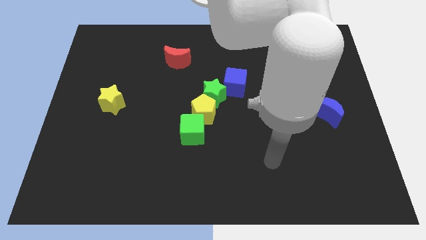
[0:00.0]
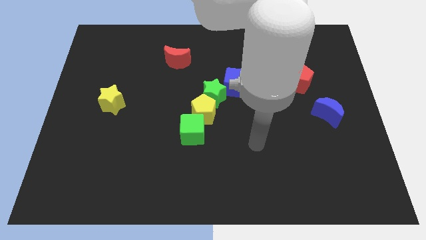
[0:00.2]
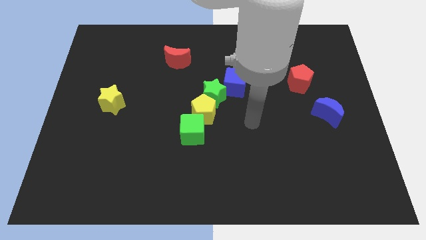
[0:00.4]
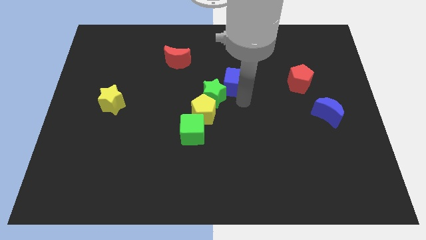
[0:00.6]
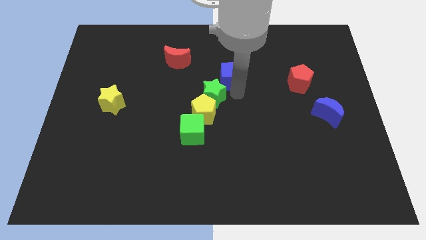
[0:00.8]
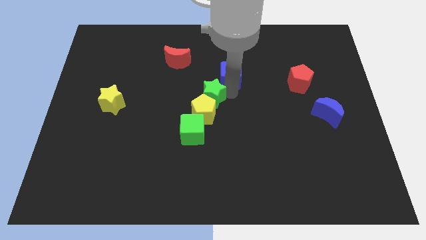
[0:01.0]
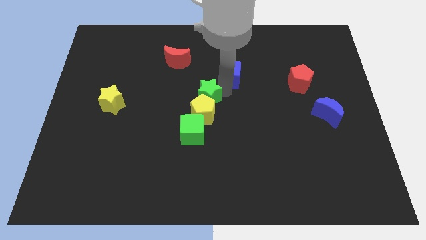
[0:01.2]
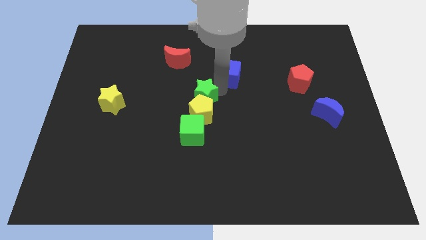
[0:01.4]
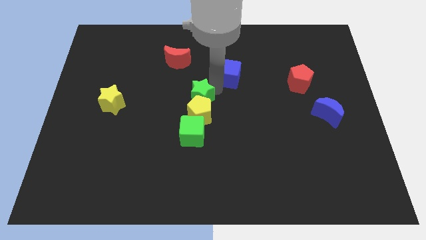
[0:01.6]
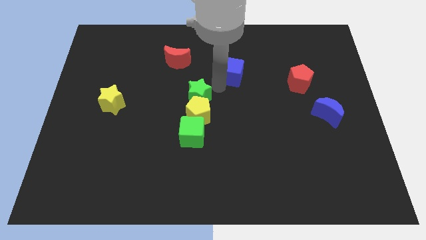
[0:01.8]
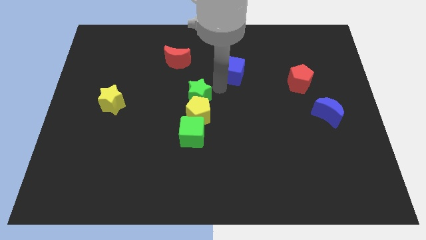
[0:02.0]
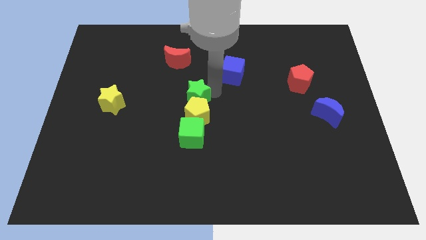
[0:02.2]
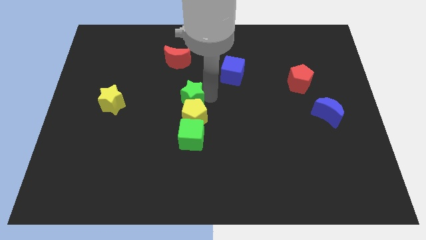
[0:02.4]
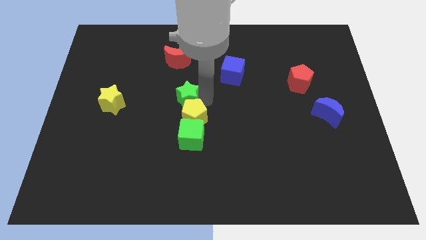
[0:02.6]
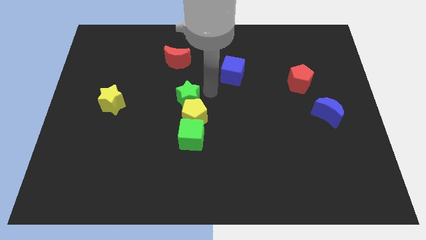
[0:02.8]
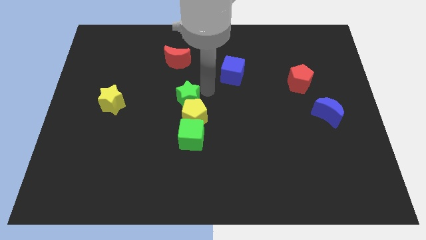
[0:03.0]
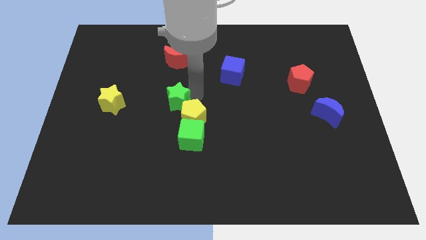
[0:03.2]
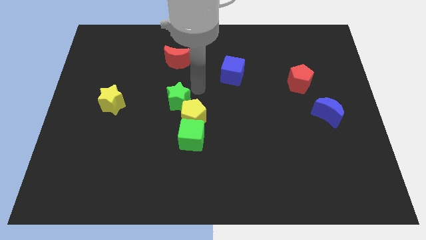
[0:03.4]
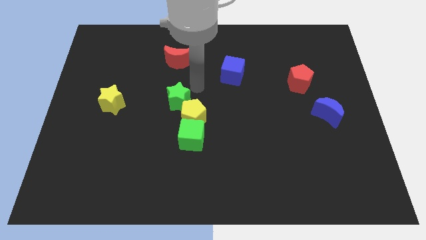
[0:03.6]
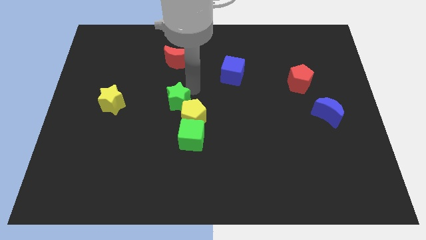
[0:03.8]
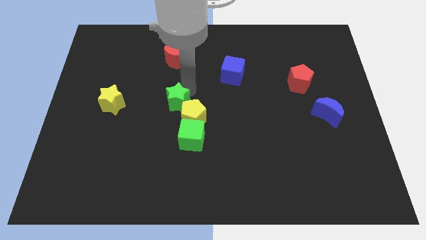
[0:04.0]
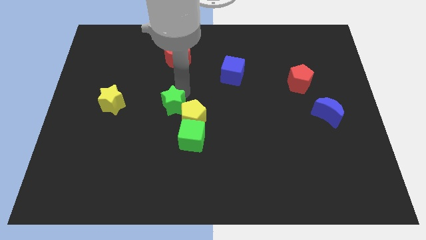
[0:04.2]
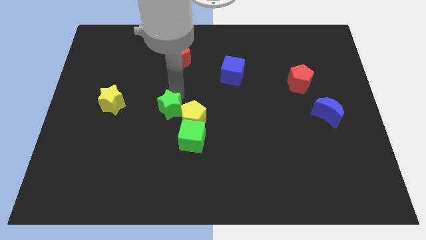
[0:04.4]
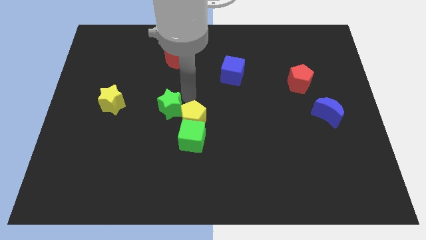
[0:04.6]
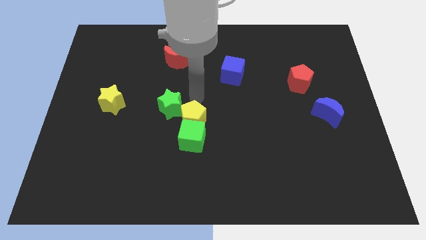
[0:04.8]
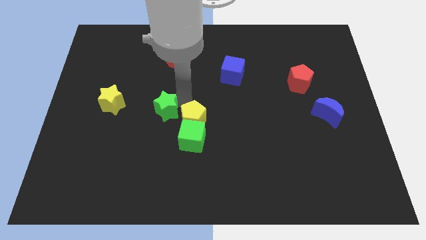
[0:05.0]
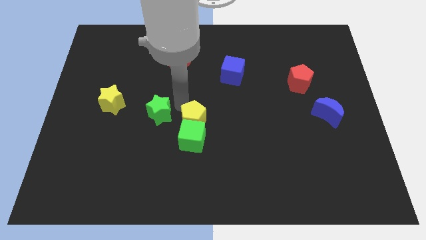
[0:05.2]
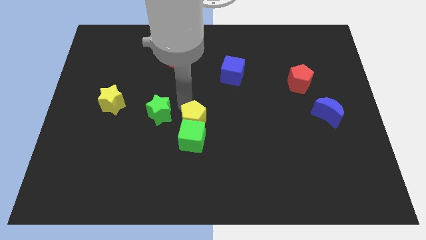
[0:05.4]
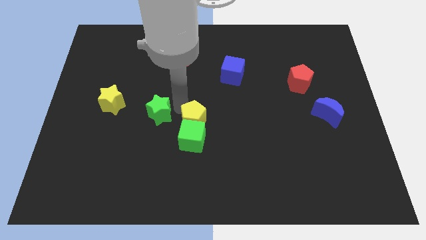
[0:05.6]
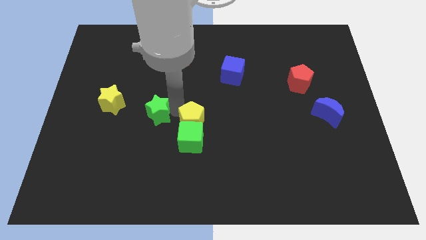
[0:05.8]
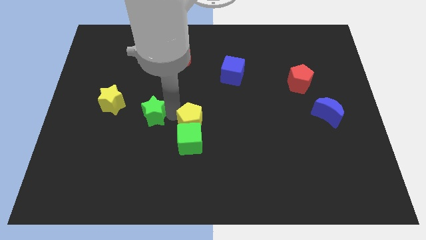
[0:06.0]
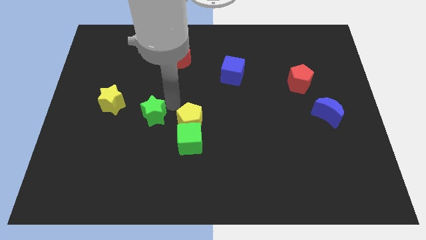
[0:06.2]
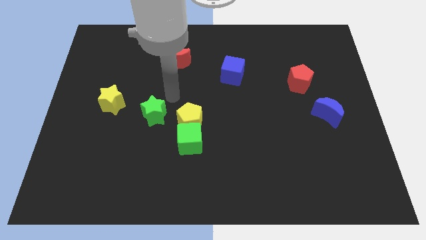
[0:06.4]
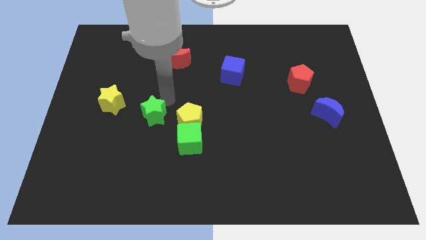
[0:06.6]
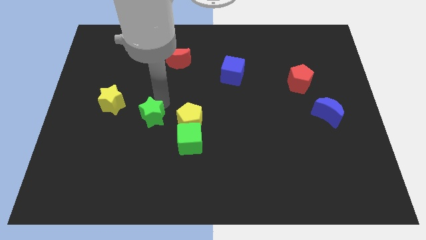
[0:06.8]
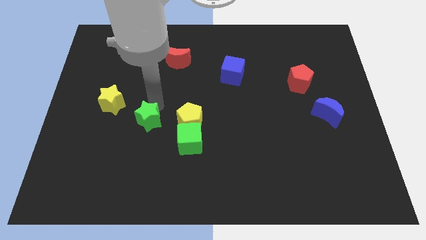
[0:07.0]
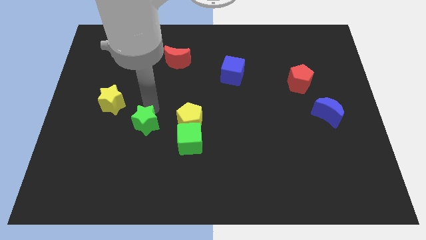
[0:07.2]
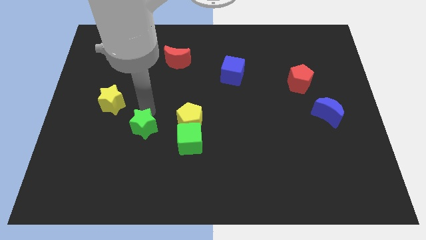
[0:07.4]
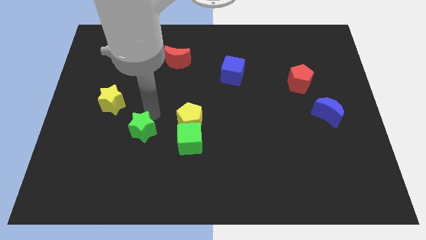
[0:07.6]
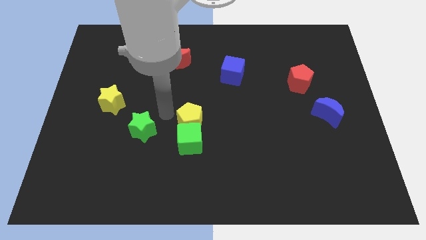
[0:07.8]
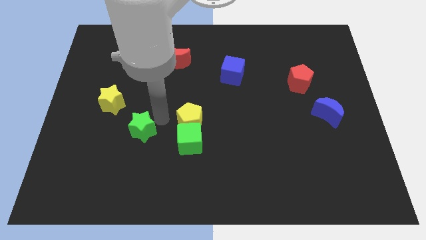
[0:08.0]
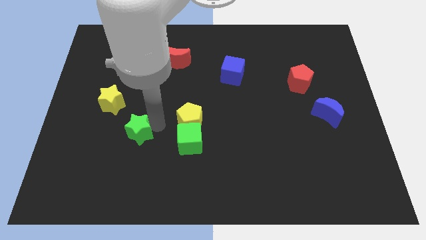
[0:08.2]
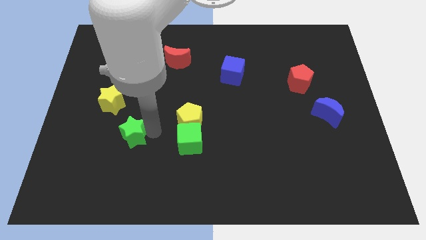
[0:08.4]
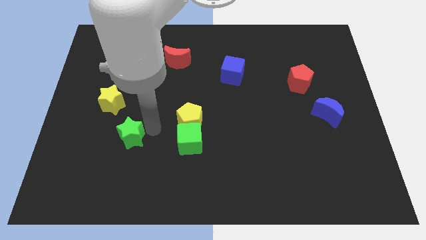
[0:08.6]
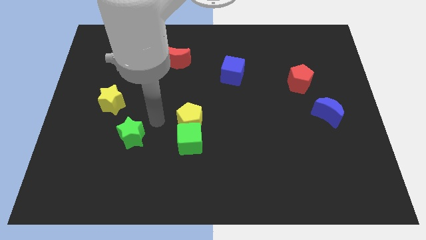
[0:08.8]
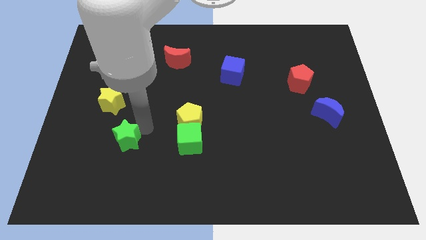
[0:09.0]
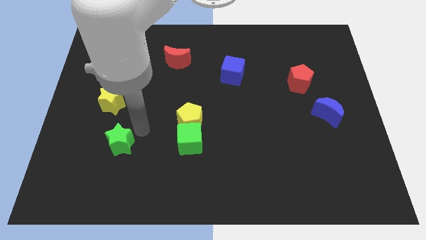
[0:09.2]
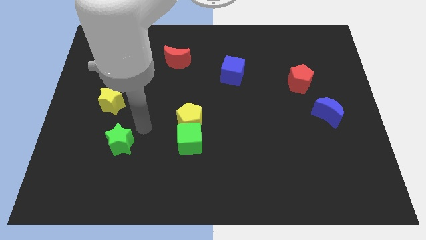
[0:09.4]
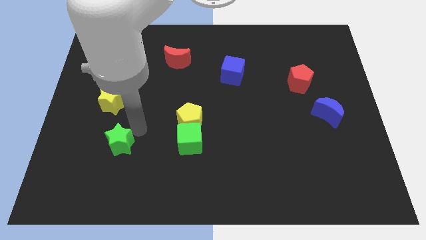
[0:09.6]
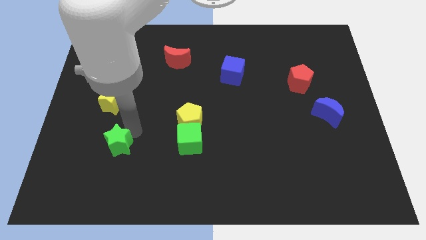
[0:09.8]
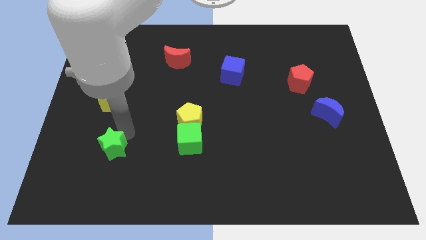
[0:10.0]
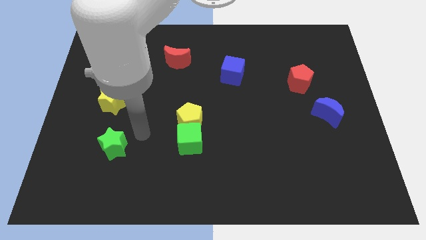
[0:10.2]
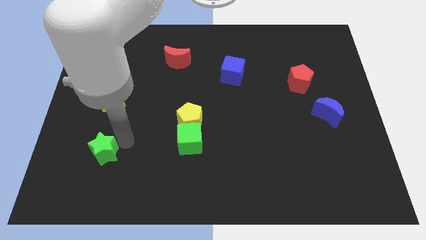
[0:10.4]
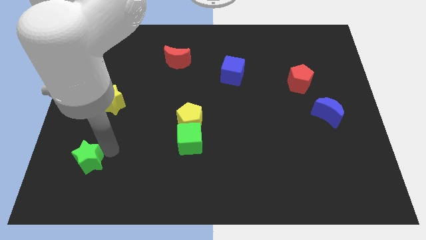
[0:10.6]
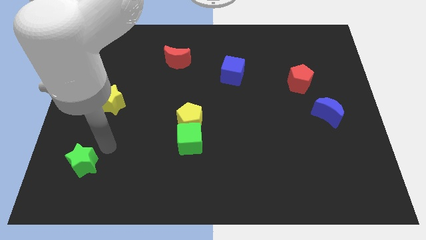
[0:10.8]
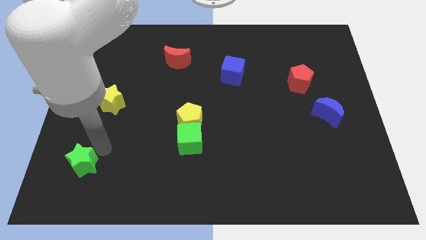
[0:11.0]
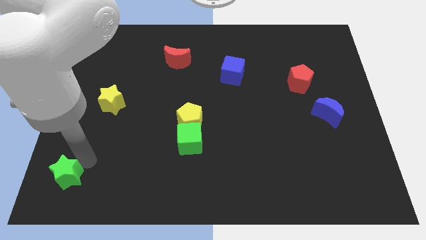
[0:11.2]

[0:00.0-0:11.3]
move the green star to the bottom left of the board

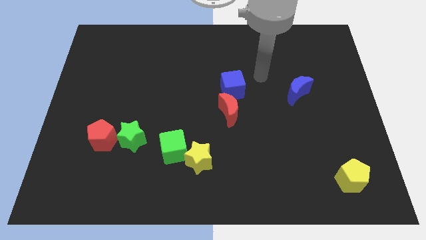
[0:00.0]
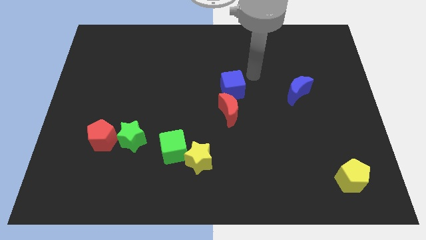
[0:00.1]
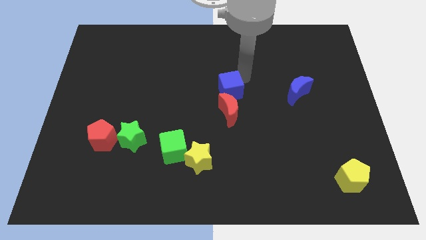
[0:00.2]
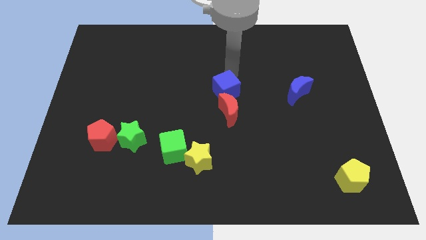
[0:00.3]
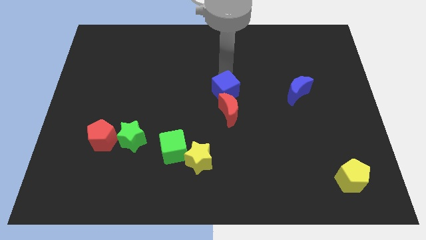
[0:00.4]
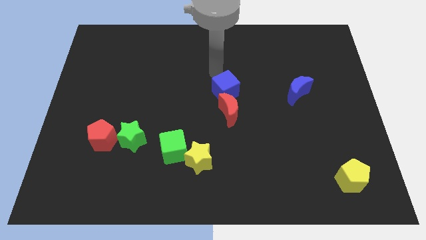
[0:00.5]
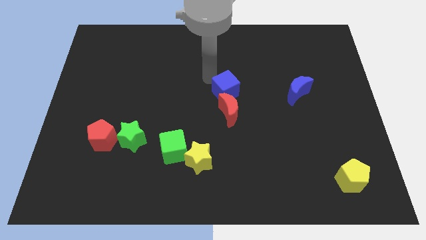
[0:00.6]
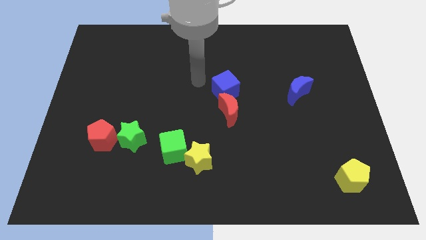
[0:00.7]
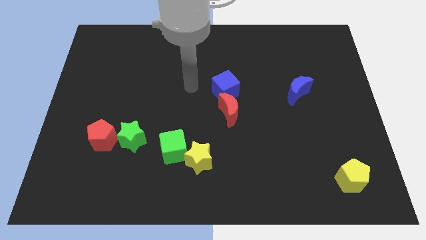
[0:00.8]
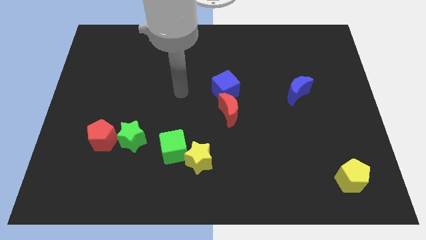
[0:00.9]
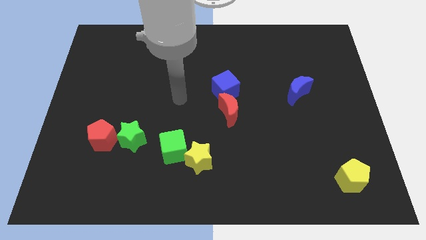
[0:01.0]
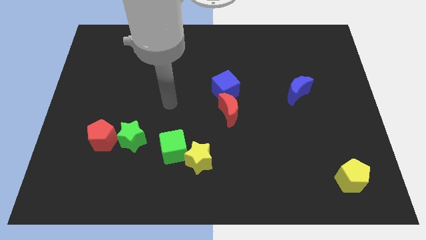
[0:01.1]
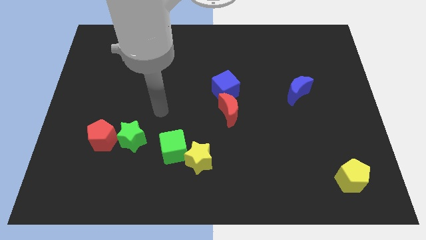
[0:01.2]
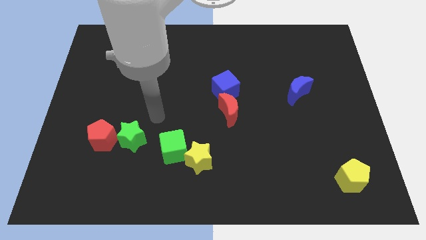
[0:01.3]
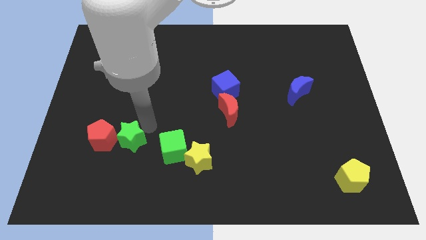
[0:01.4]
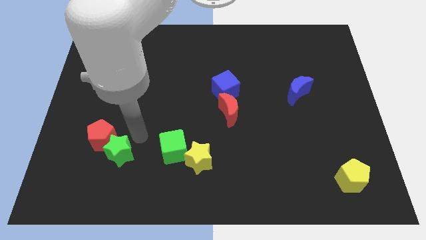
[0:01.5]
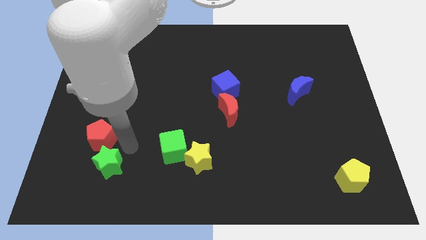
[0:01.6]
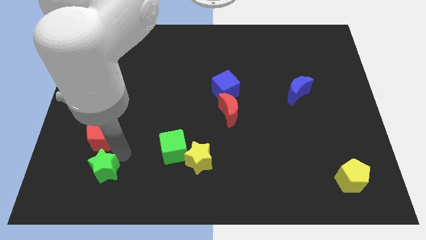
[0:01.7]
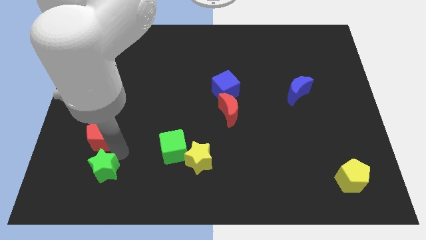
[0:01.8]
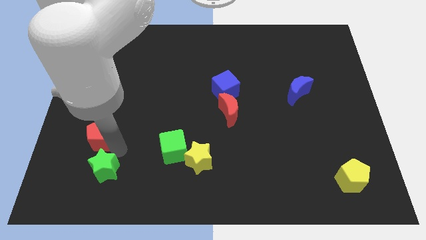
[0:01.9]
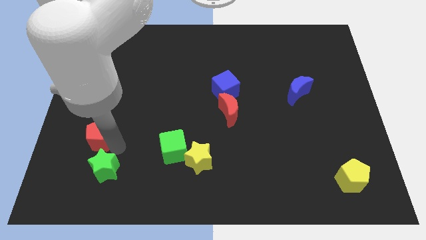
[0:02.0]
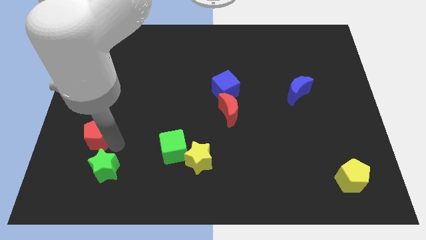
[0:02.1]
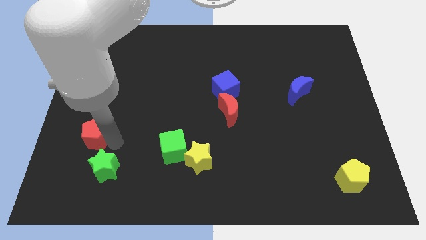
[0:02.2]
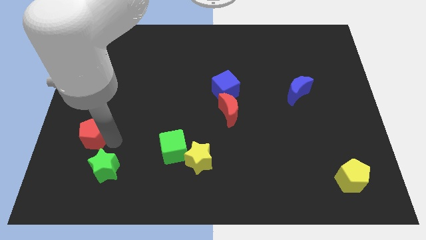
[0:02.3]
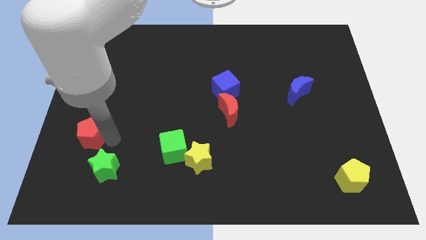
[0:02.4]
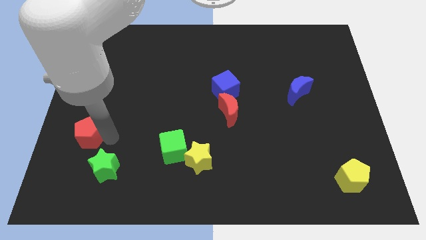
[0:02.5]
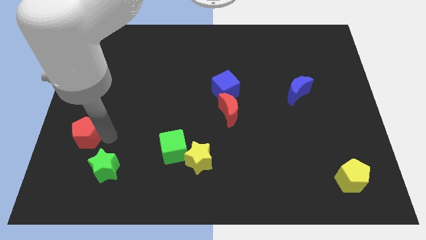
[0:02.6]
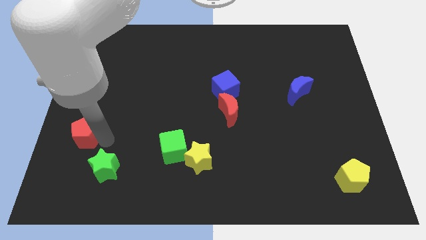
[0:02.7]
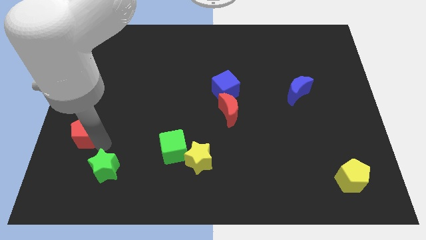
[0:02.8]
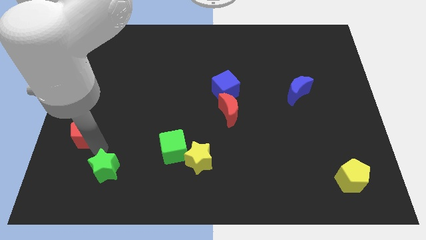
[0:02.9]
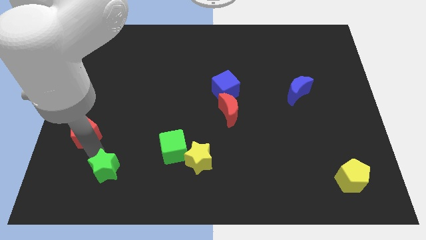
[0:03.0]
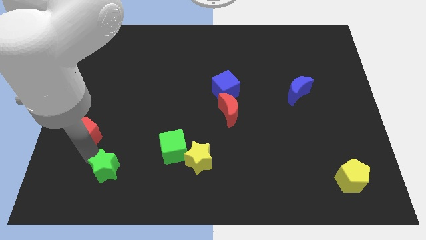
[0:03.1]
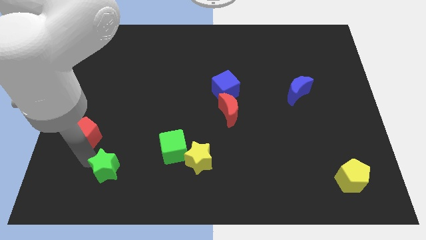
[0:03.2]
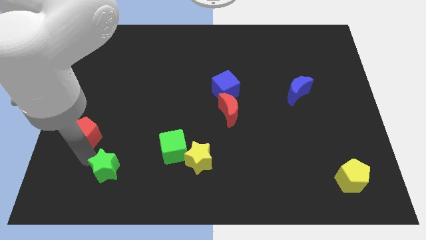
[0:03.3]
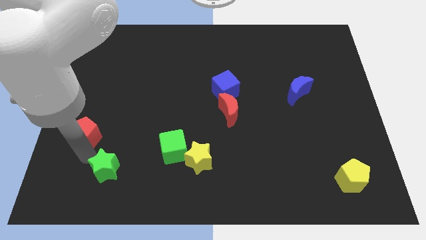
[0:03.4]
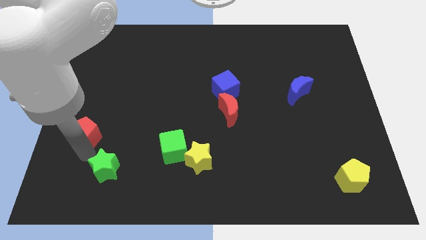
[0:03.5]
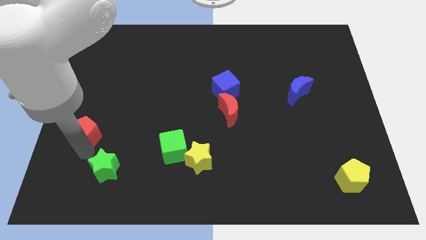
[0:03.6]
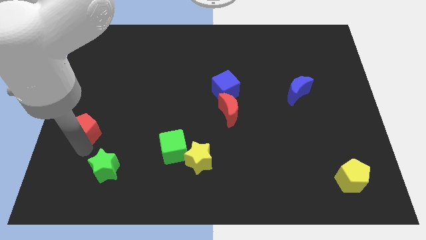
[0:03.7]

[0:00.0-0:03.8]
move the red pentagon to the left side of the board
